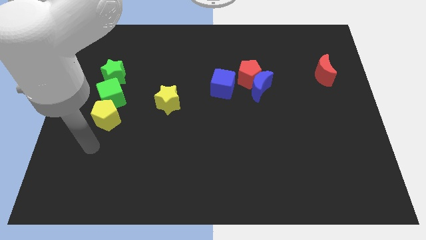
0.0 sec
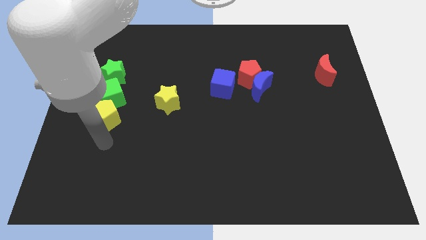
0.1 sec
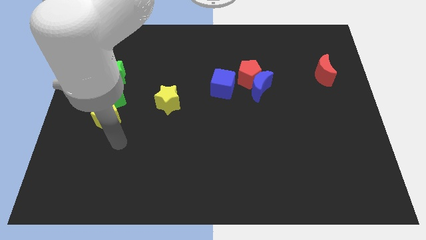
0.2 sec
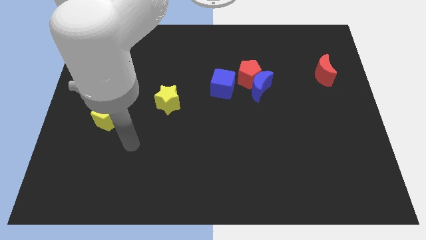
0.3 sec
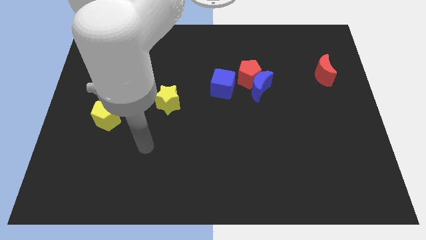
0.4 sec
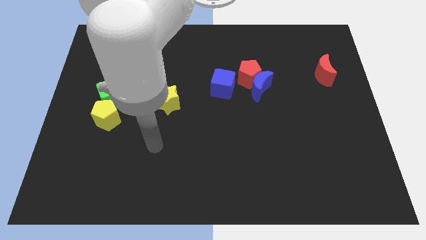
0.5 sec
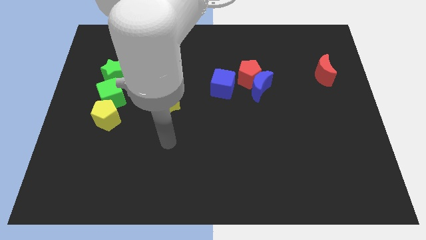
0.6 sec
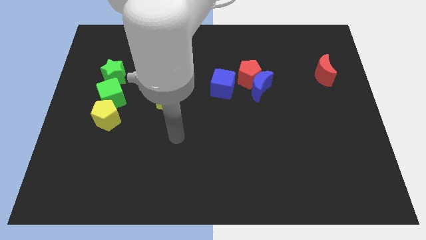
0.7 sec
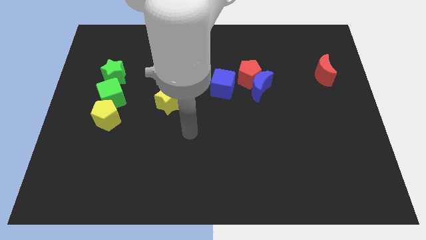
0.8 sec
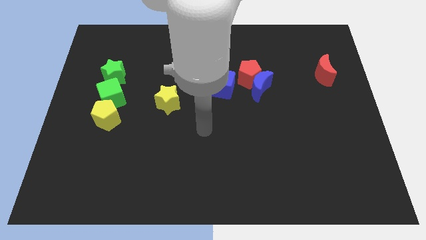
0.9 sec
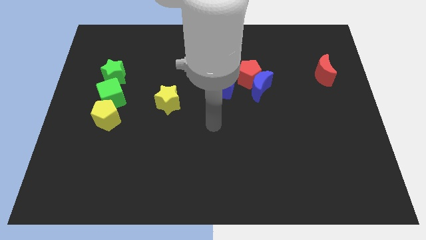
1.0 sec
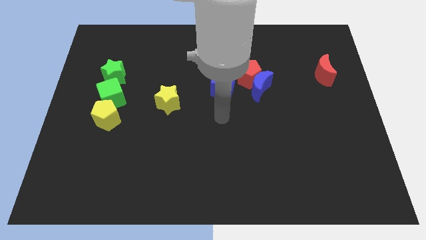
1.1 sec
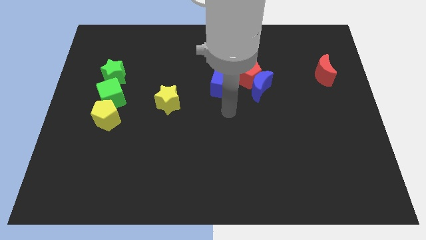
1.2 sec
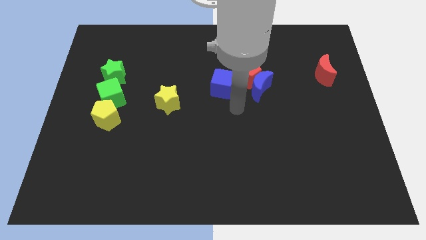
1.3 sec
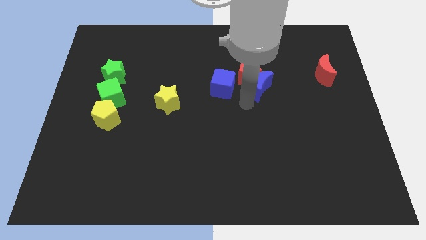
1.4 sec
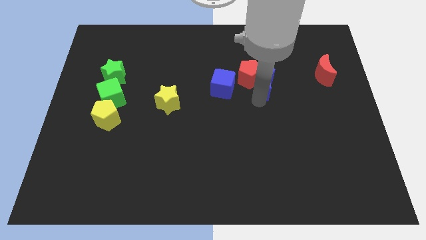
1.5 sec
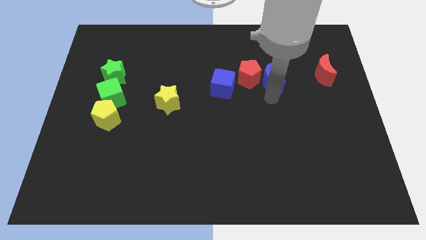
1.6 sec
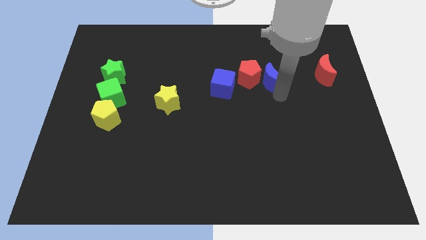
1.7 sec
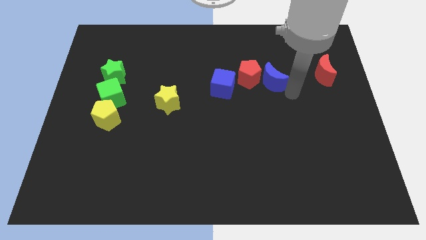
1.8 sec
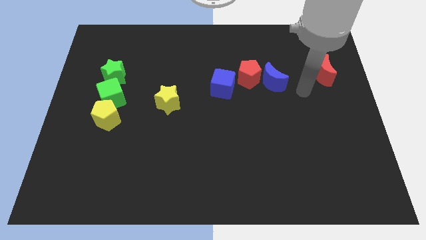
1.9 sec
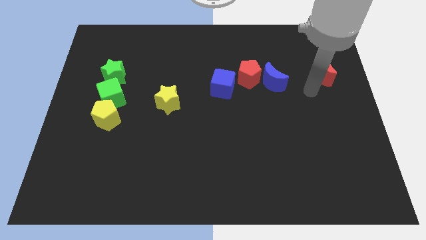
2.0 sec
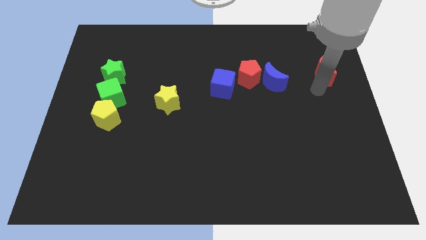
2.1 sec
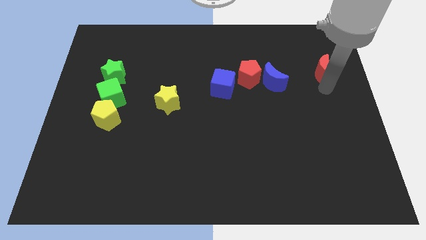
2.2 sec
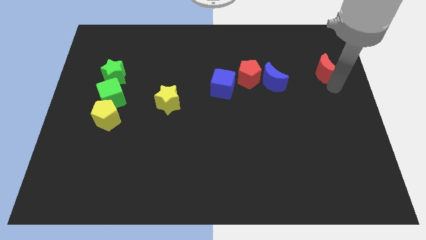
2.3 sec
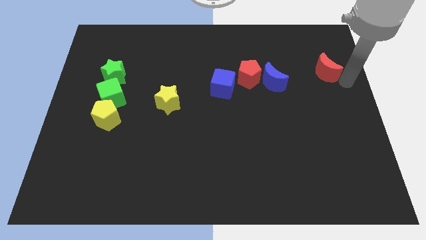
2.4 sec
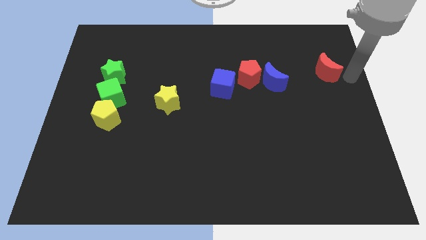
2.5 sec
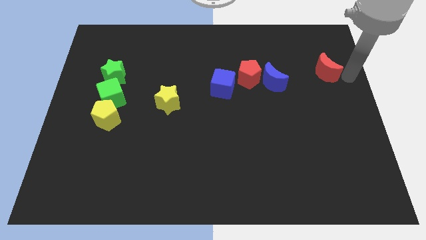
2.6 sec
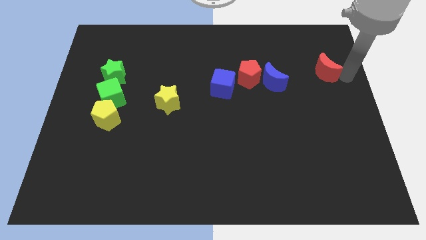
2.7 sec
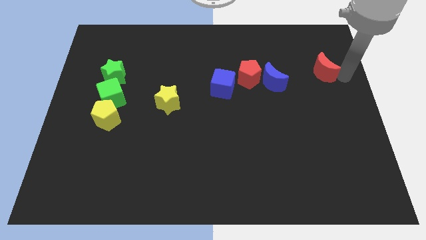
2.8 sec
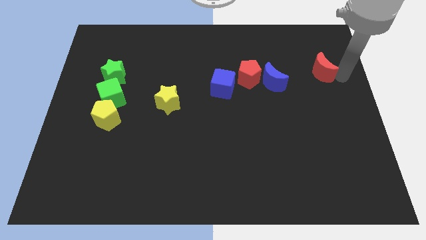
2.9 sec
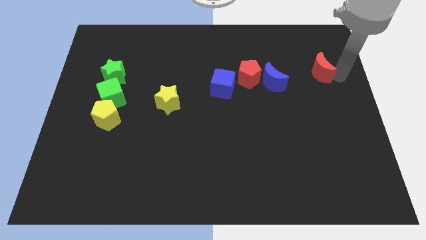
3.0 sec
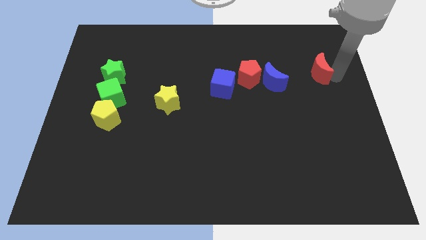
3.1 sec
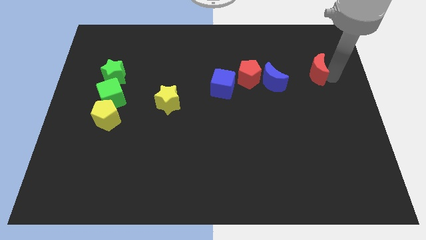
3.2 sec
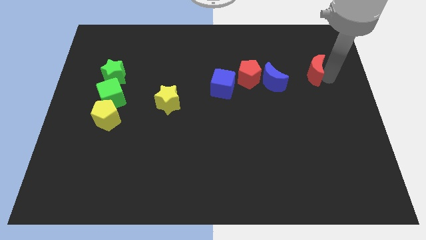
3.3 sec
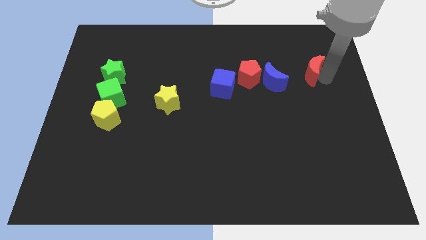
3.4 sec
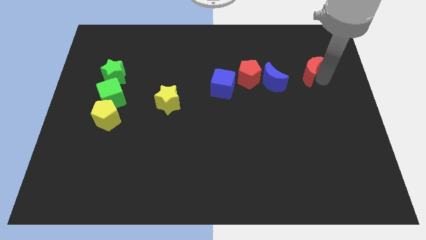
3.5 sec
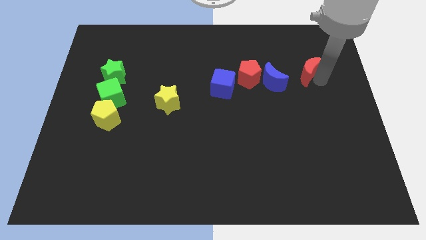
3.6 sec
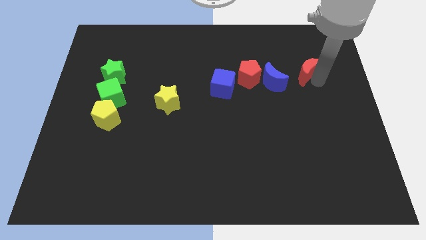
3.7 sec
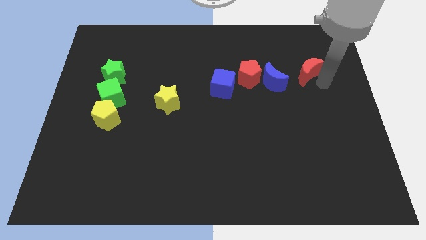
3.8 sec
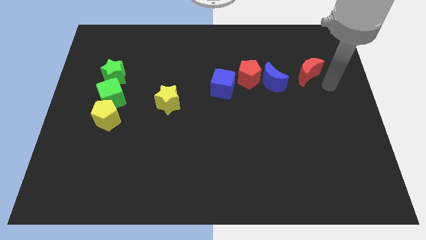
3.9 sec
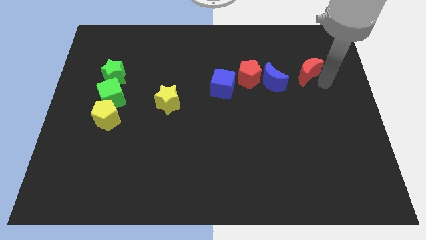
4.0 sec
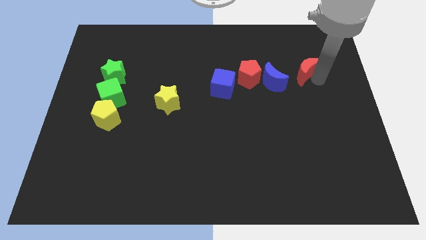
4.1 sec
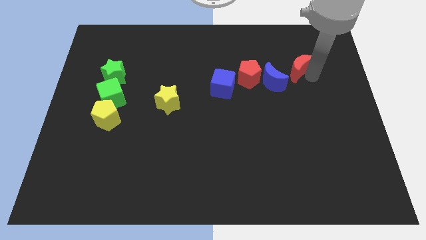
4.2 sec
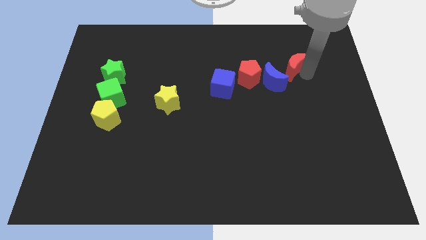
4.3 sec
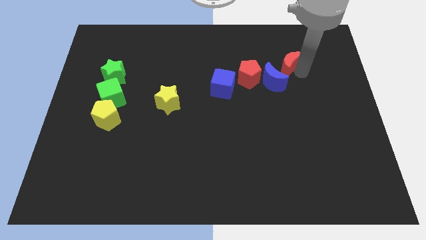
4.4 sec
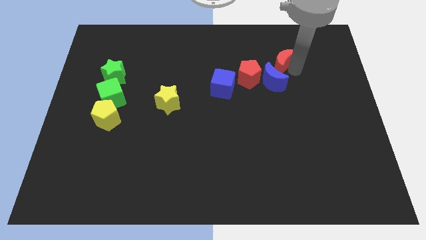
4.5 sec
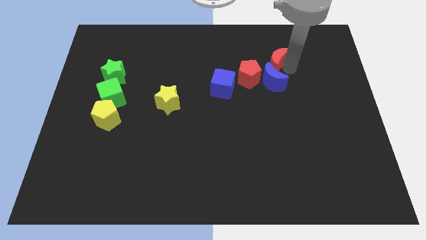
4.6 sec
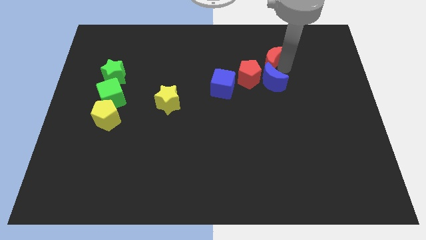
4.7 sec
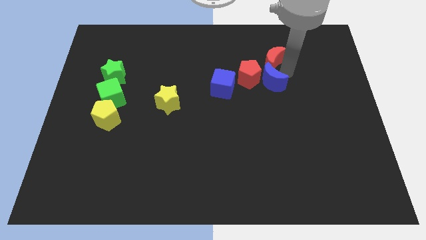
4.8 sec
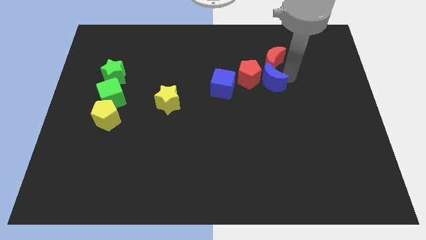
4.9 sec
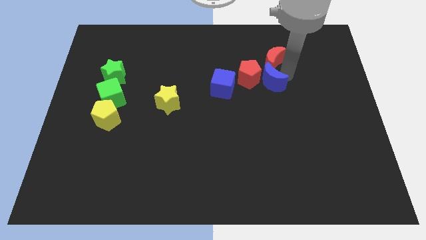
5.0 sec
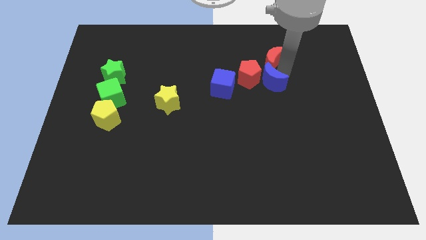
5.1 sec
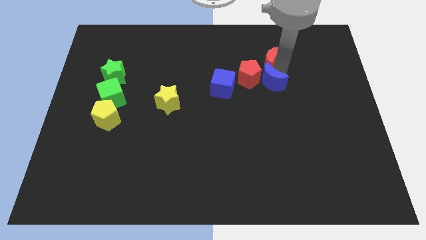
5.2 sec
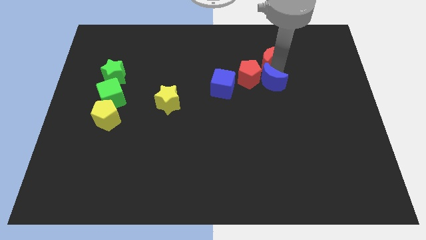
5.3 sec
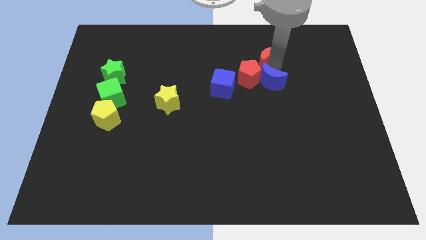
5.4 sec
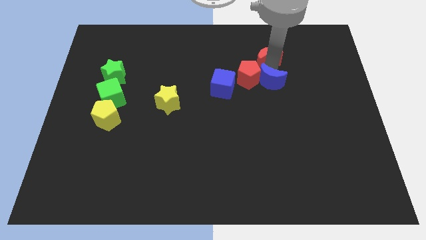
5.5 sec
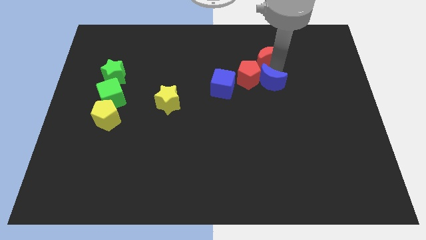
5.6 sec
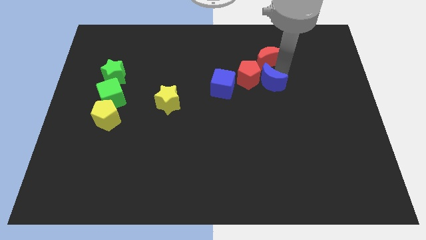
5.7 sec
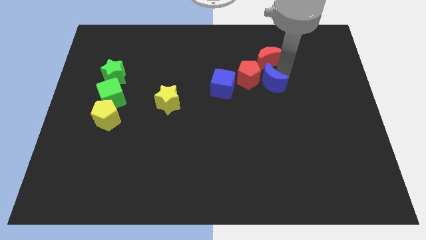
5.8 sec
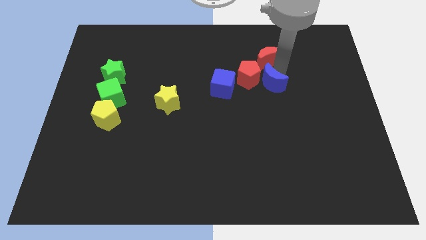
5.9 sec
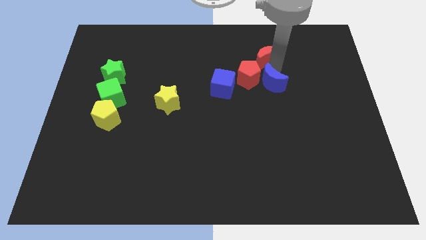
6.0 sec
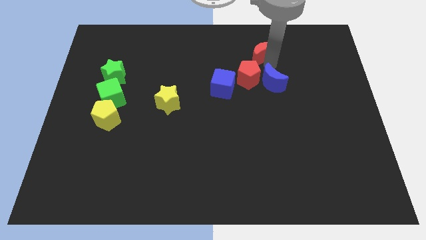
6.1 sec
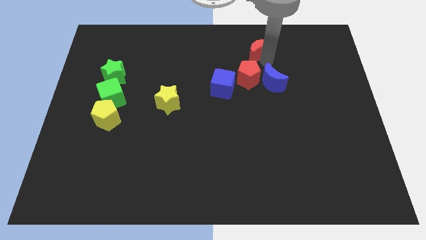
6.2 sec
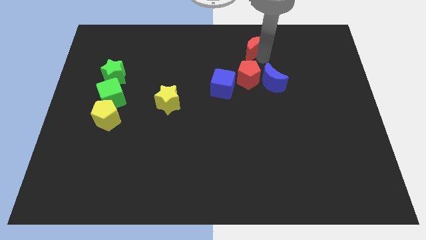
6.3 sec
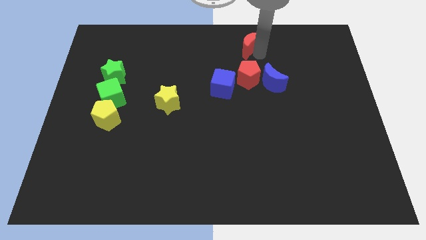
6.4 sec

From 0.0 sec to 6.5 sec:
put the red moon to the top side
